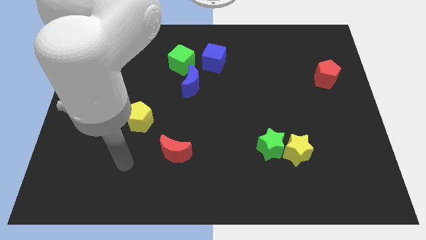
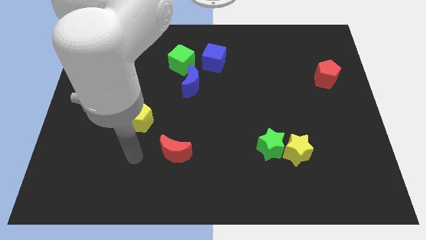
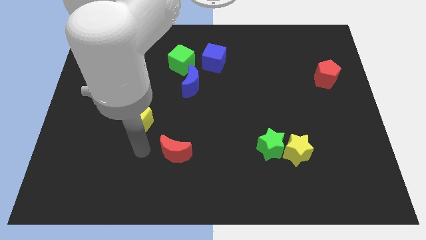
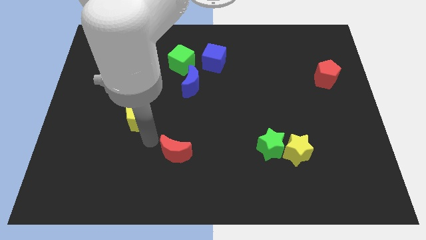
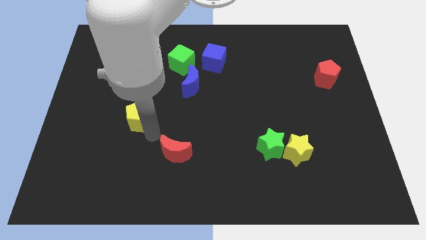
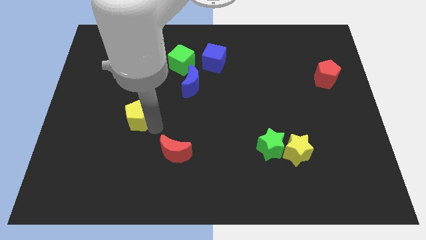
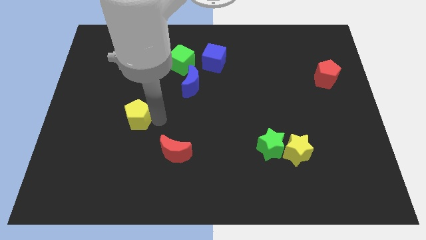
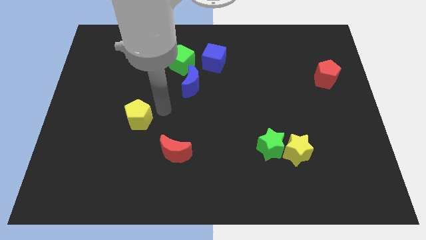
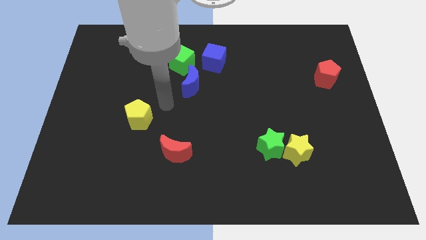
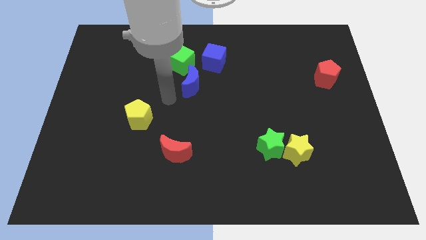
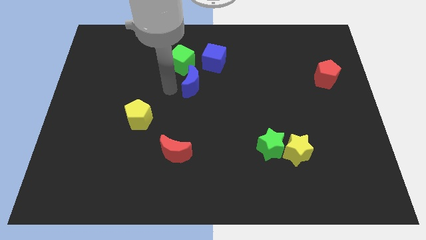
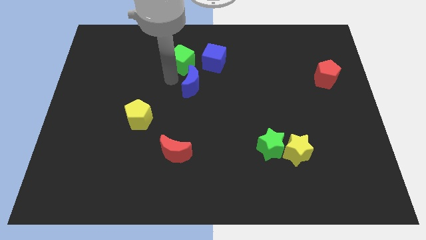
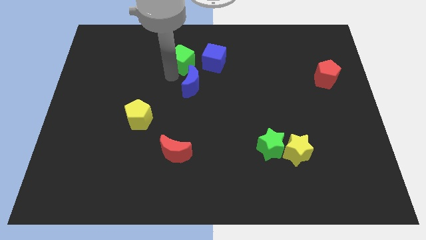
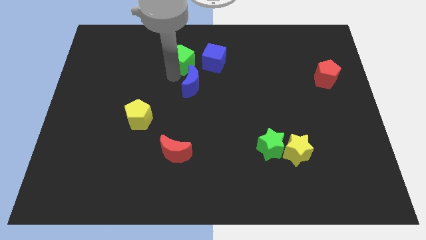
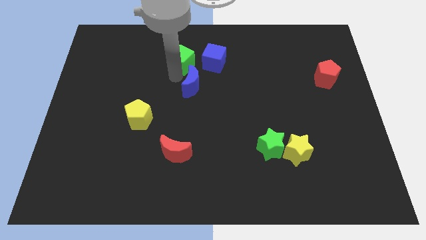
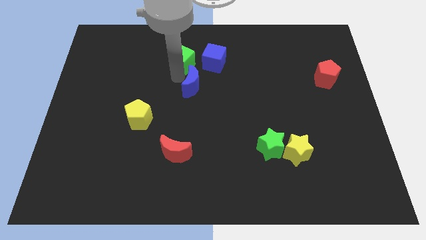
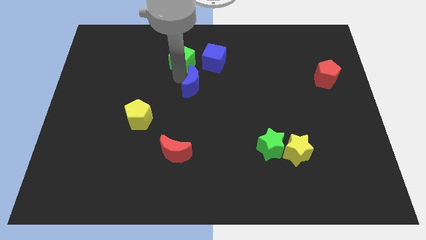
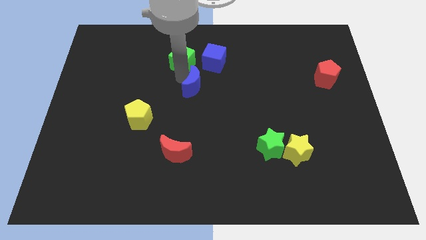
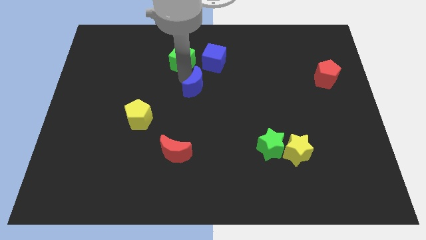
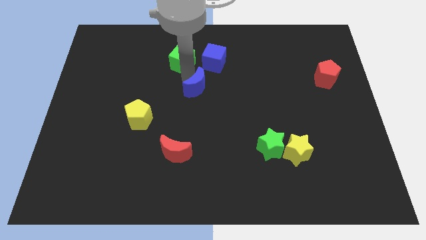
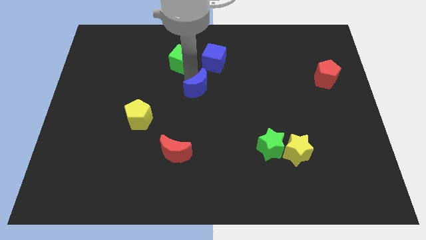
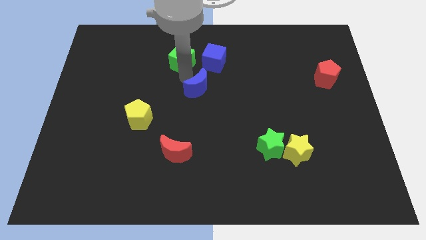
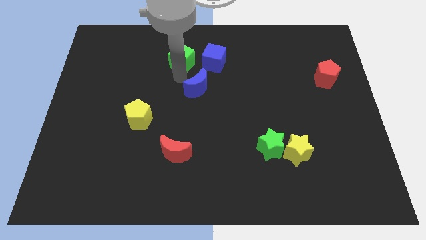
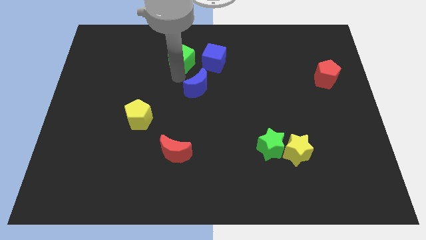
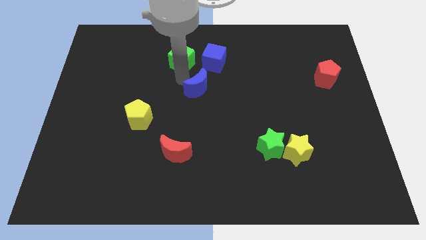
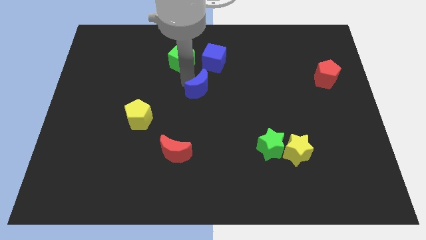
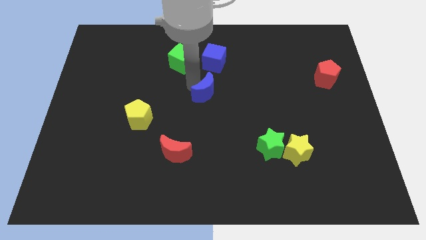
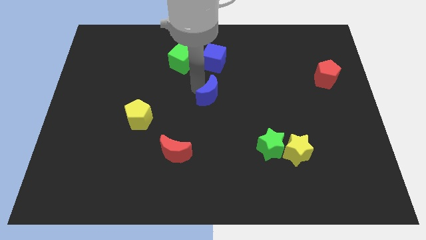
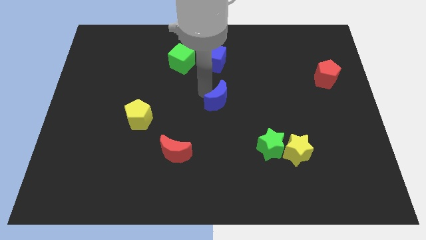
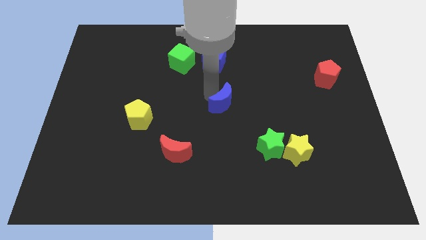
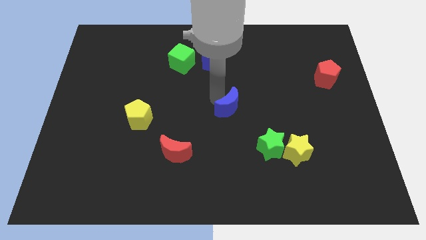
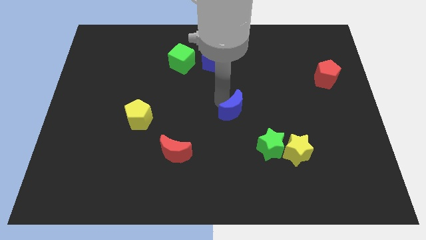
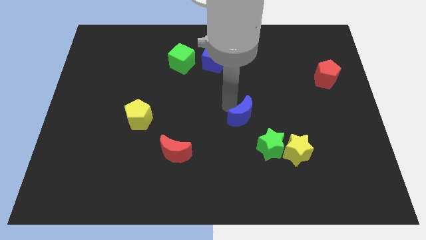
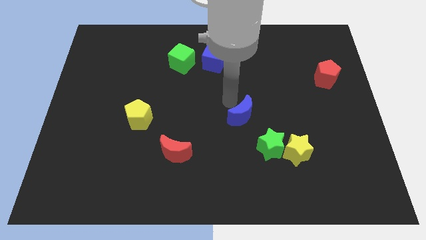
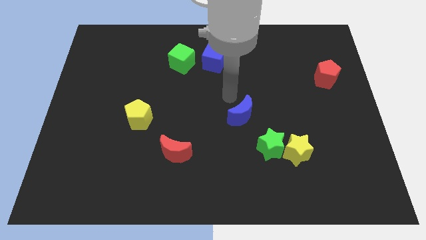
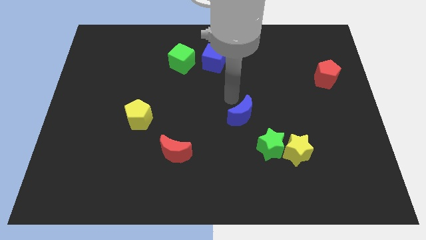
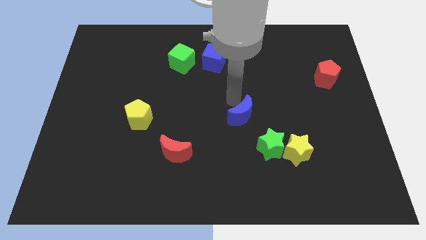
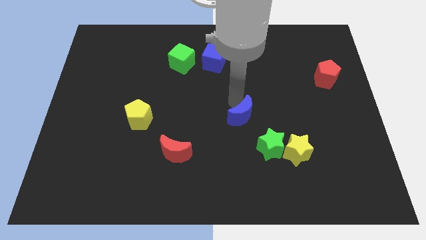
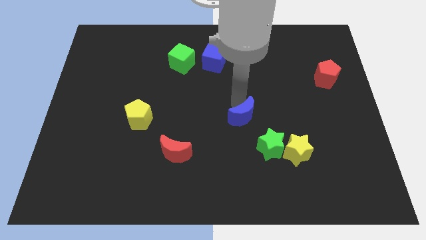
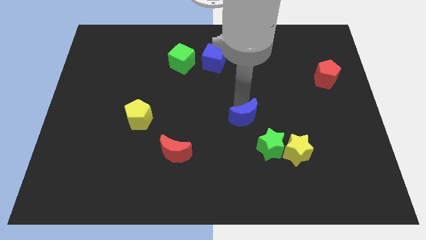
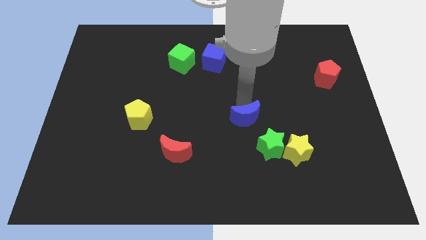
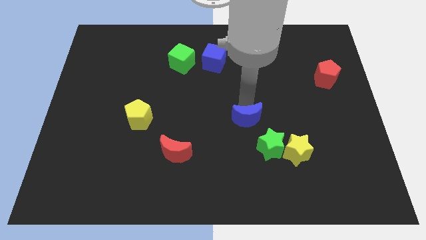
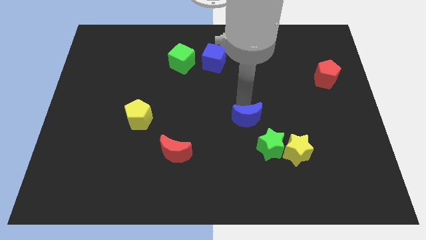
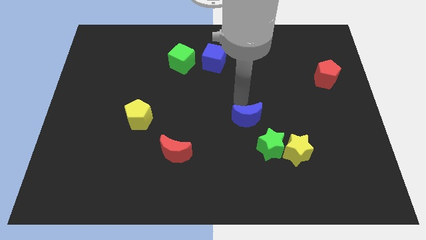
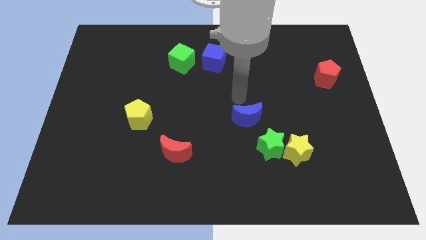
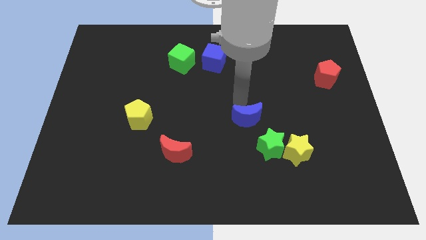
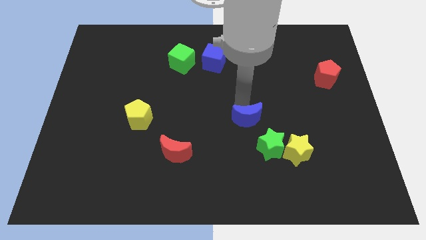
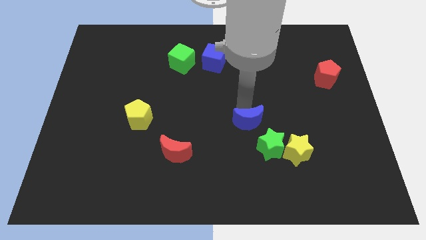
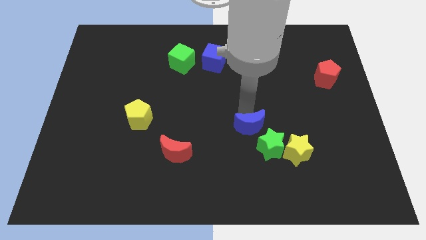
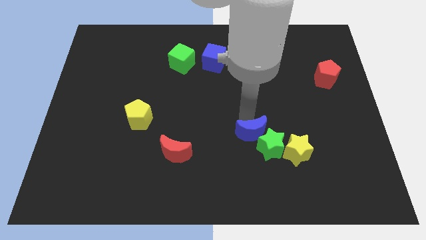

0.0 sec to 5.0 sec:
put the blue moon towards the green star

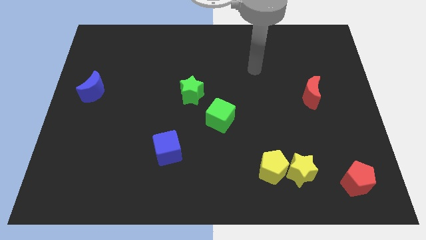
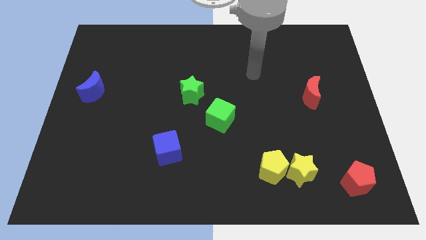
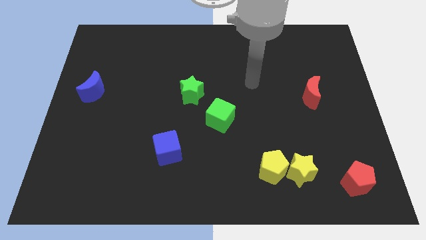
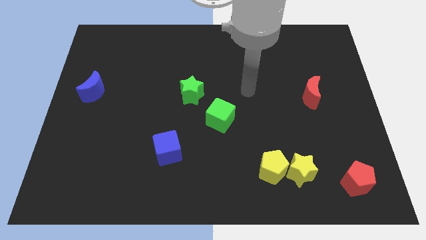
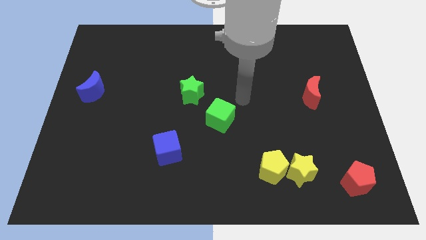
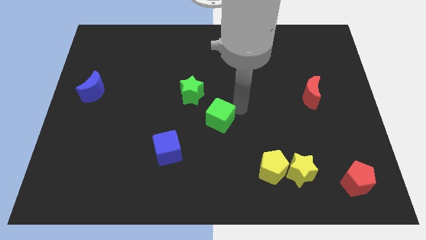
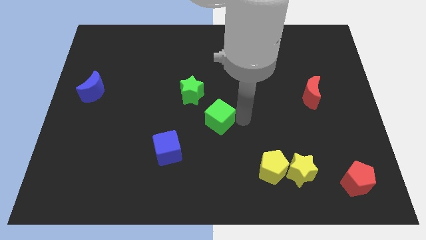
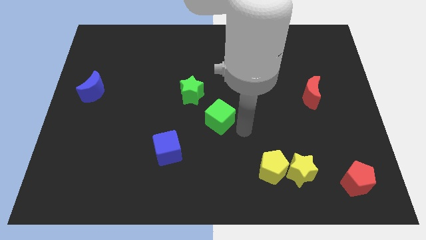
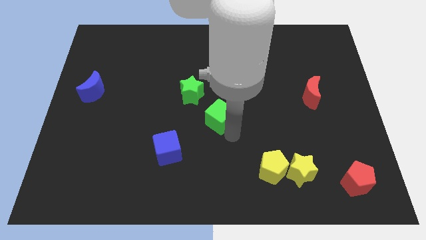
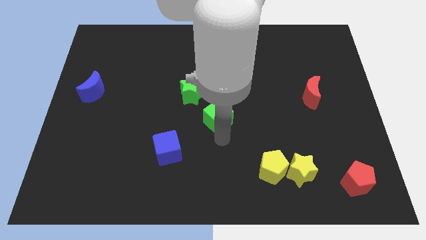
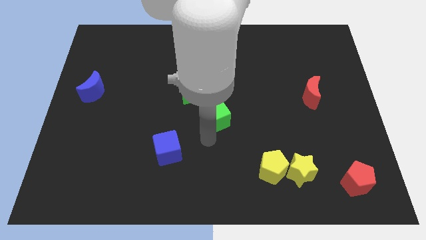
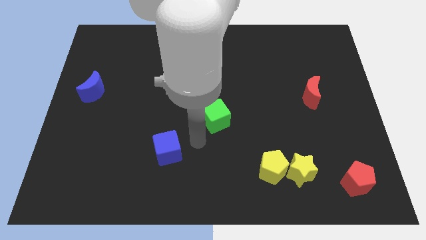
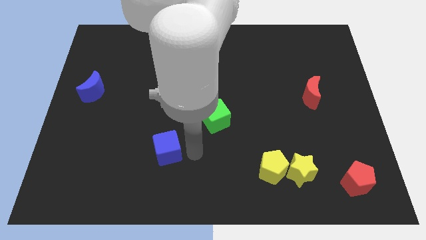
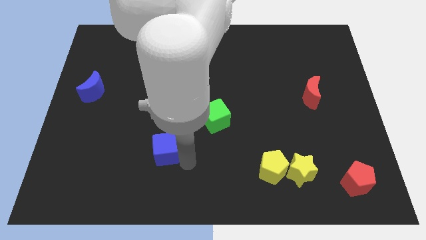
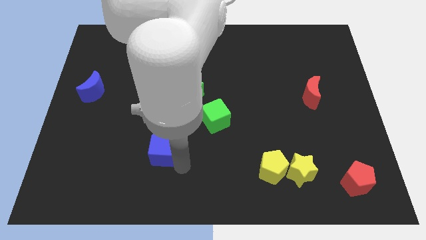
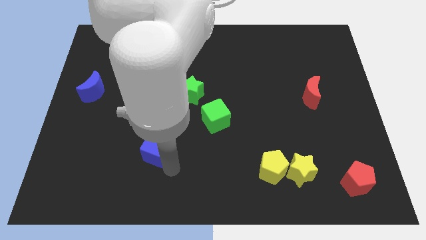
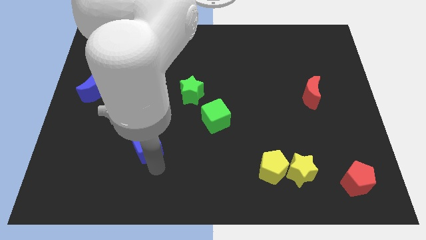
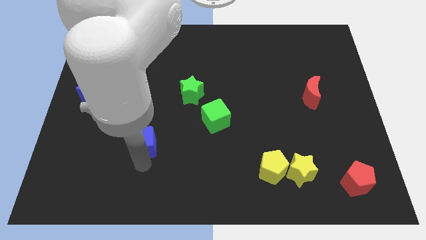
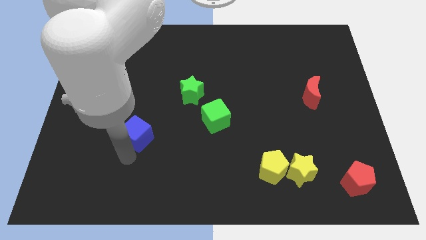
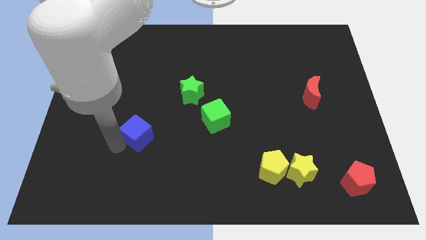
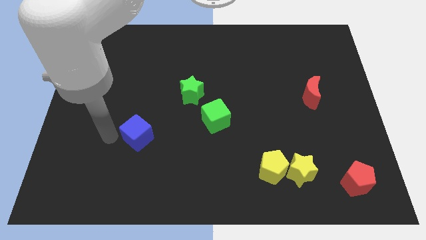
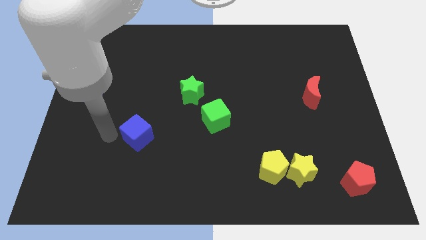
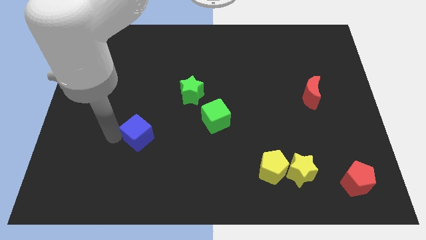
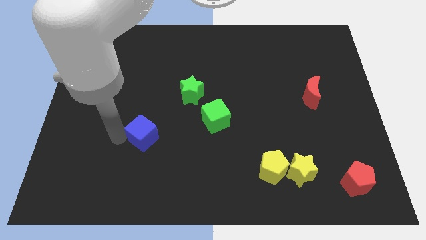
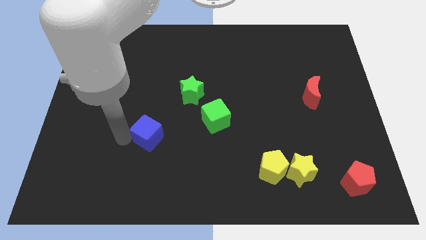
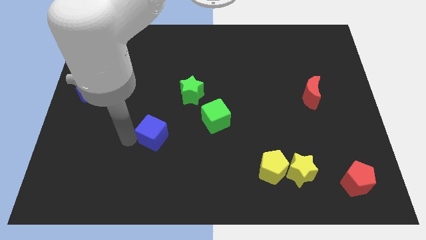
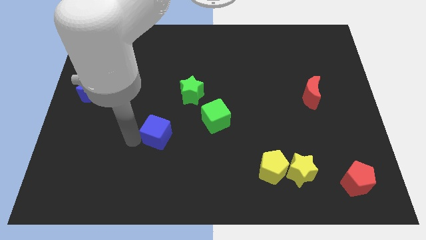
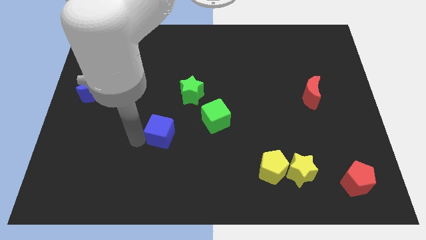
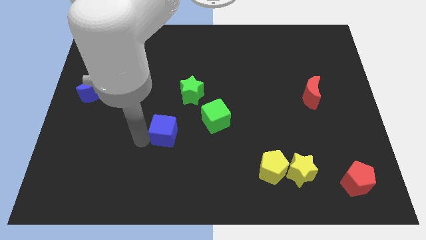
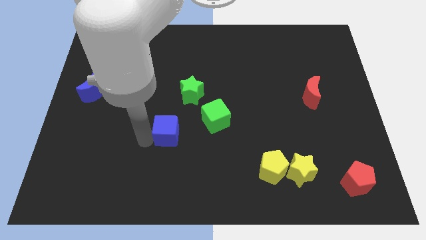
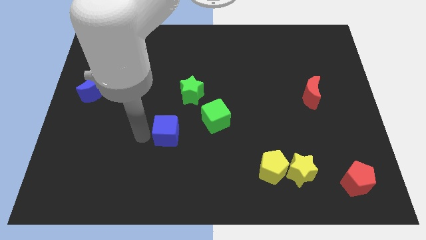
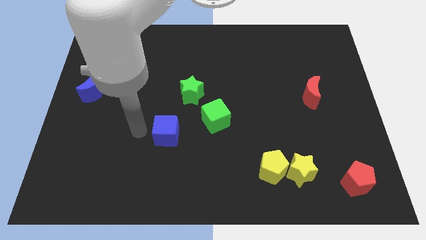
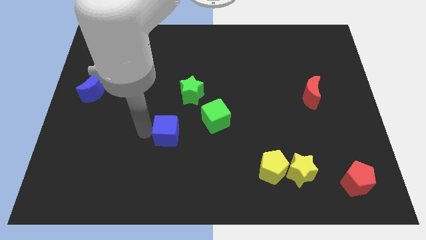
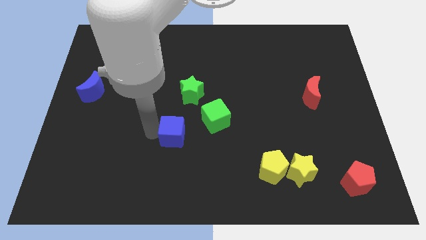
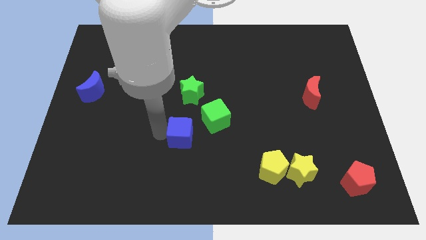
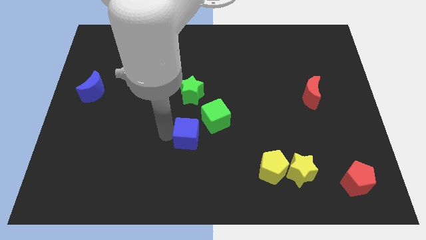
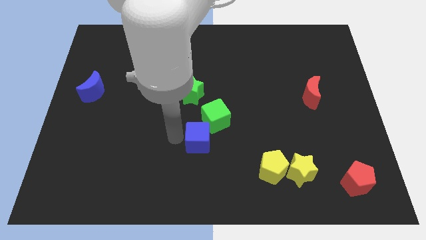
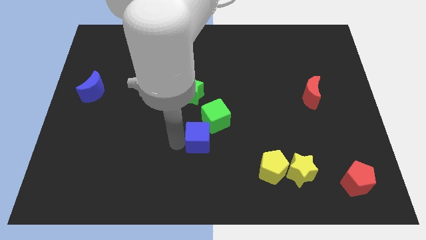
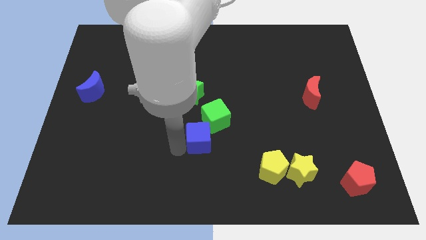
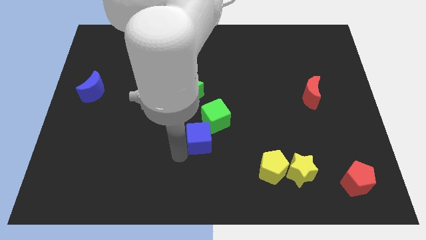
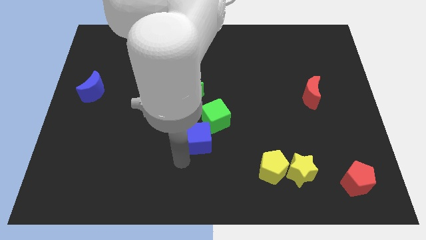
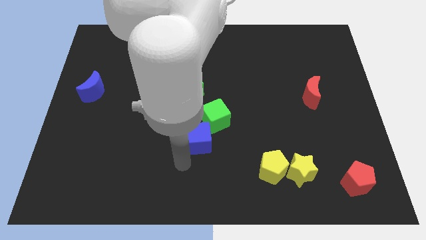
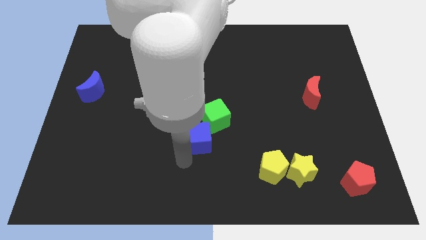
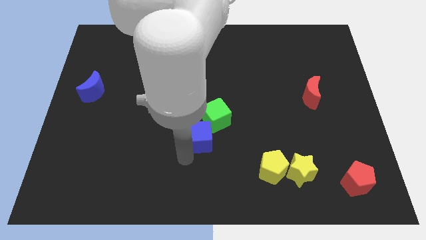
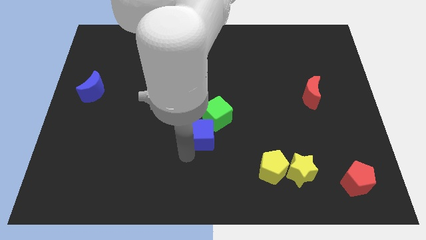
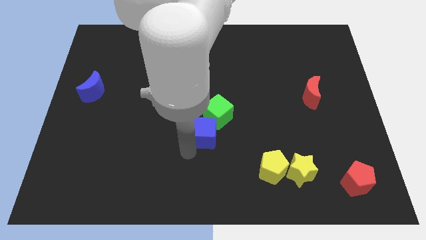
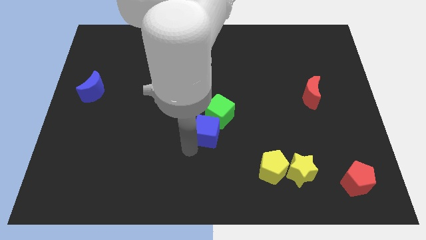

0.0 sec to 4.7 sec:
move the blue cube close to the green cube
